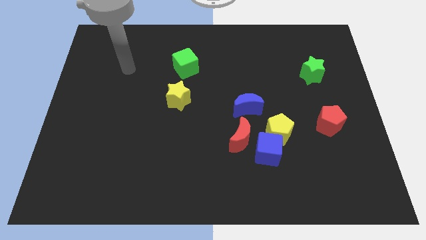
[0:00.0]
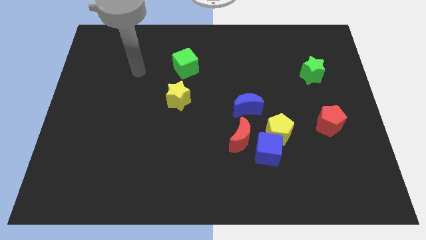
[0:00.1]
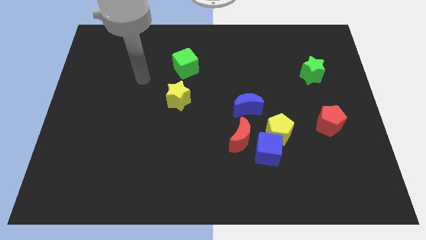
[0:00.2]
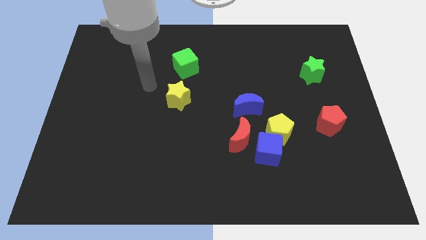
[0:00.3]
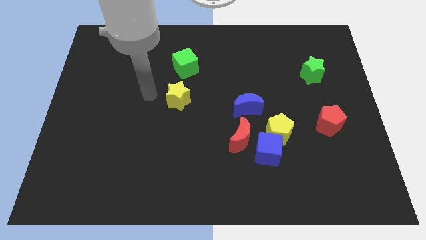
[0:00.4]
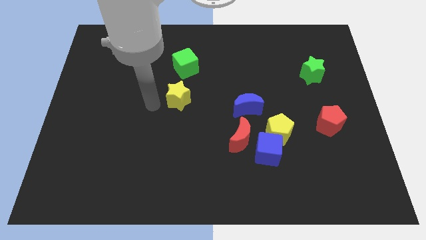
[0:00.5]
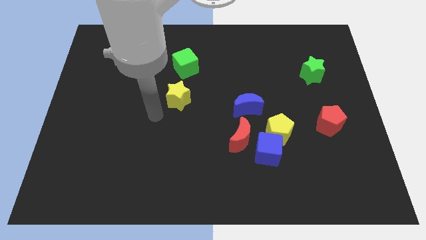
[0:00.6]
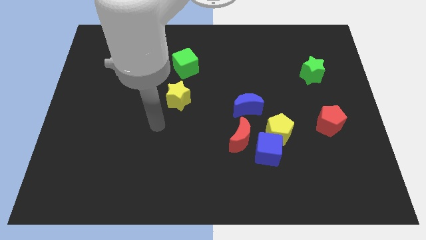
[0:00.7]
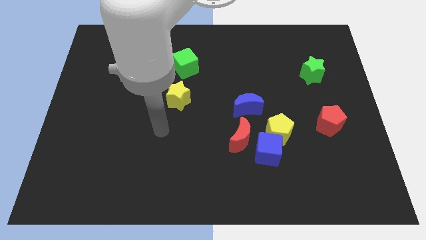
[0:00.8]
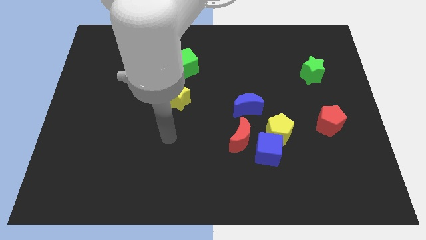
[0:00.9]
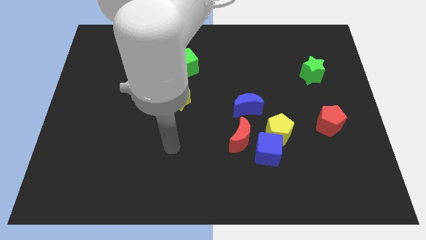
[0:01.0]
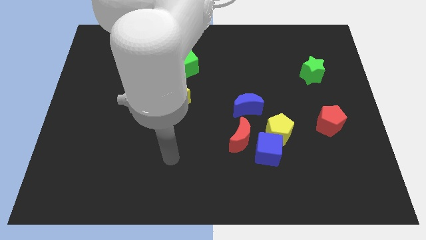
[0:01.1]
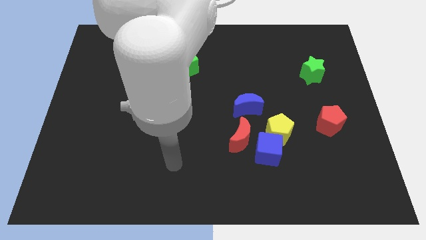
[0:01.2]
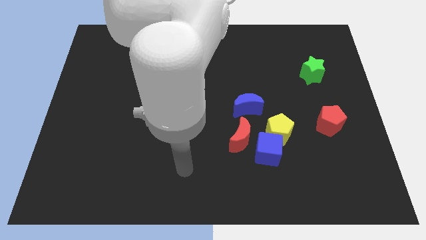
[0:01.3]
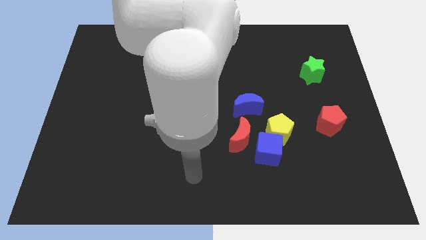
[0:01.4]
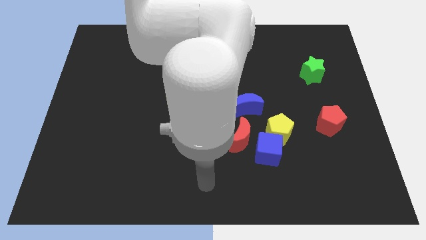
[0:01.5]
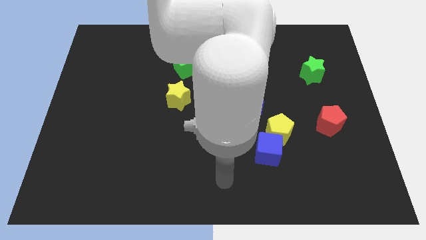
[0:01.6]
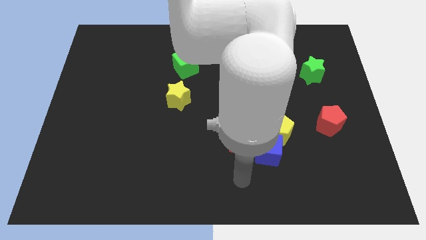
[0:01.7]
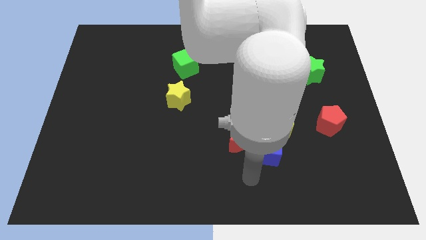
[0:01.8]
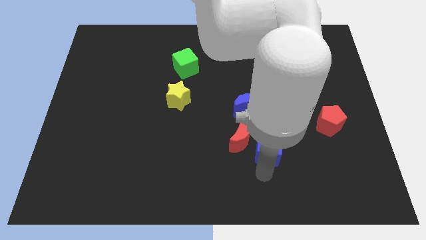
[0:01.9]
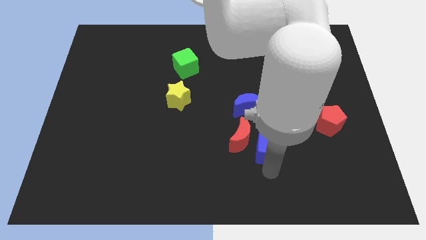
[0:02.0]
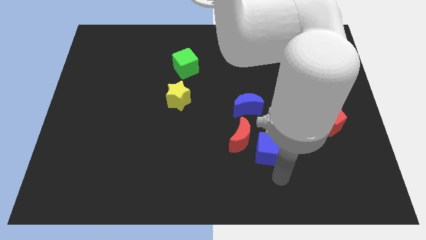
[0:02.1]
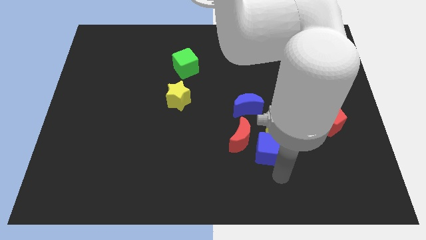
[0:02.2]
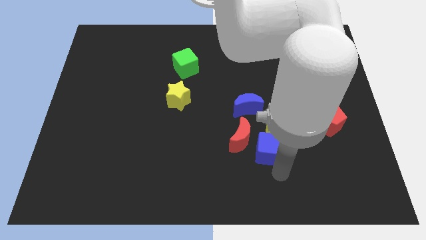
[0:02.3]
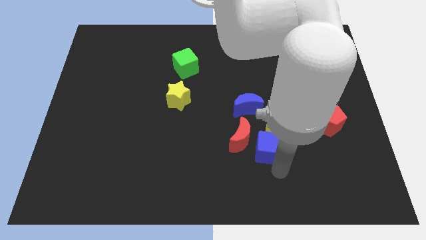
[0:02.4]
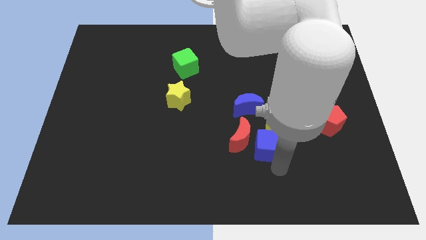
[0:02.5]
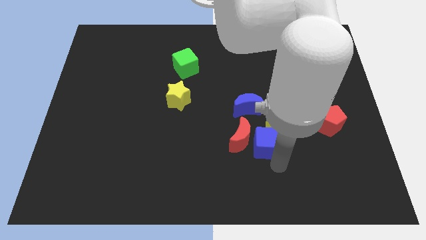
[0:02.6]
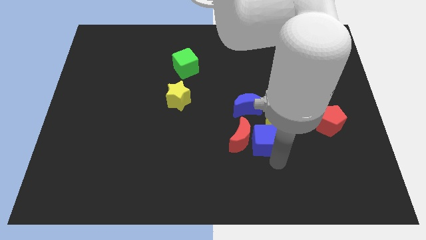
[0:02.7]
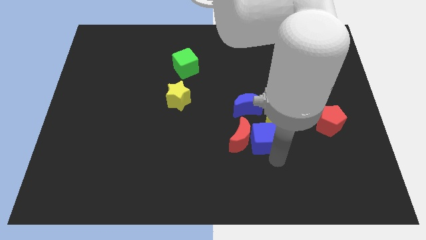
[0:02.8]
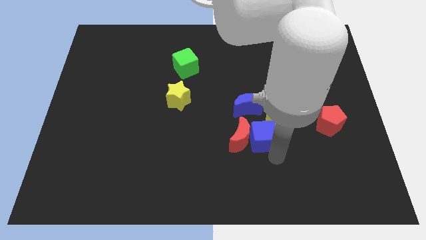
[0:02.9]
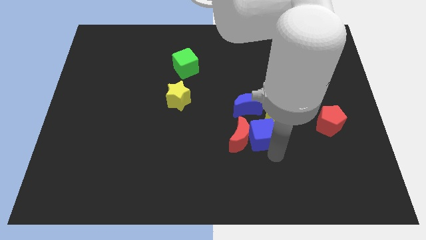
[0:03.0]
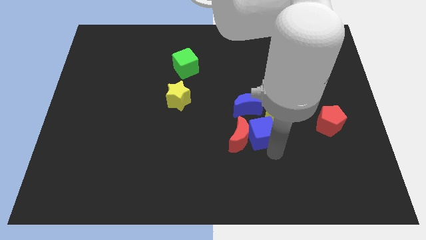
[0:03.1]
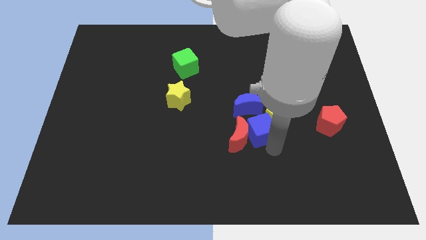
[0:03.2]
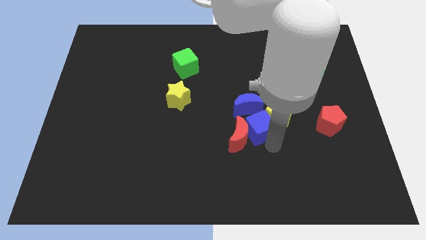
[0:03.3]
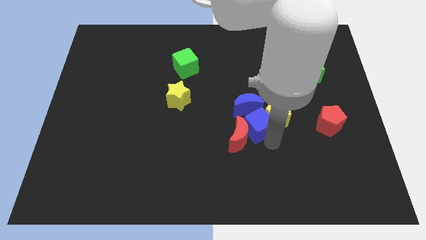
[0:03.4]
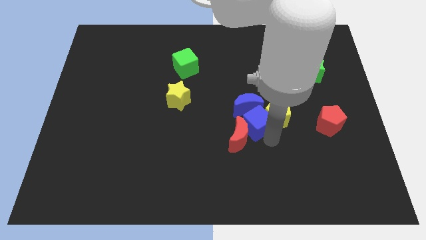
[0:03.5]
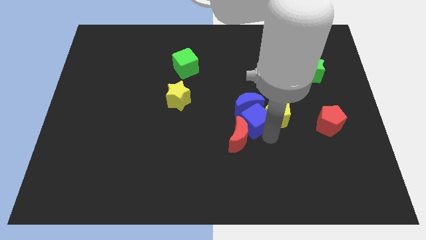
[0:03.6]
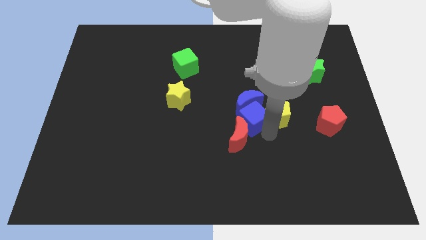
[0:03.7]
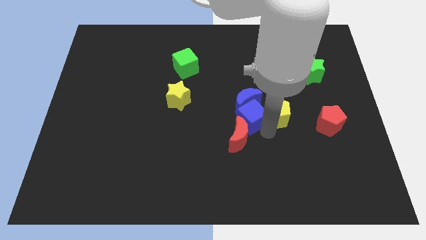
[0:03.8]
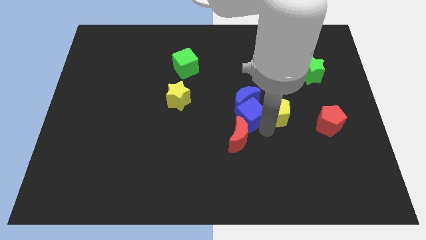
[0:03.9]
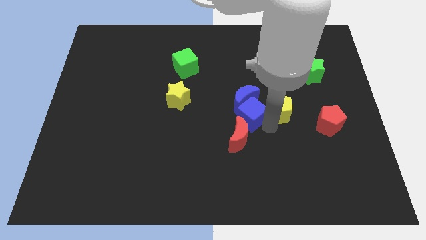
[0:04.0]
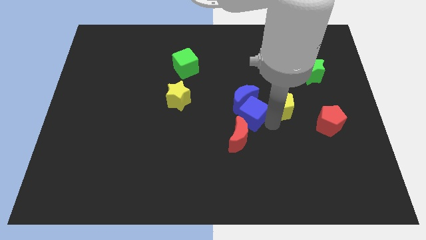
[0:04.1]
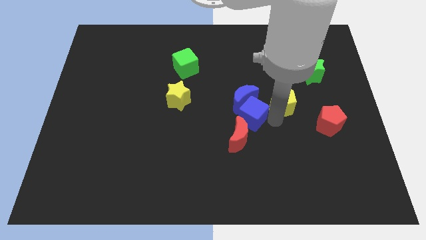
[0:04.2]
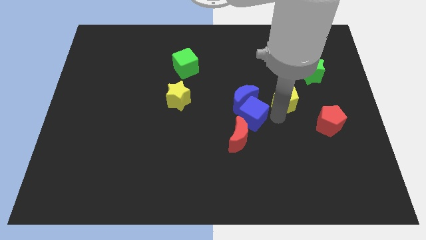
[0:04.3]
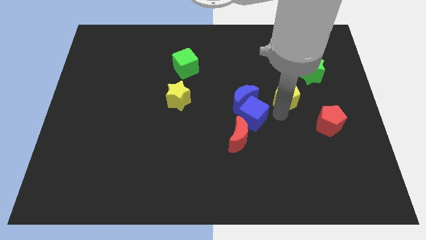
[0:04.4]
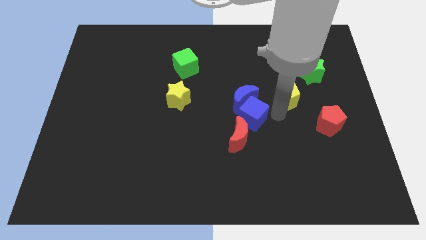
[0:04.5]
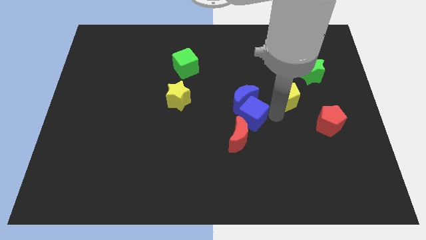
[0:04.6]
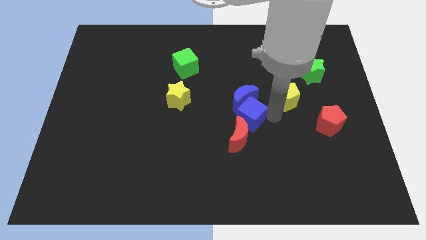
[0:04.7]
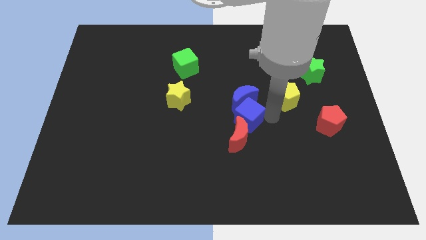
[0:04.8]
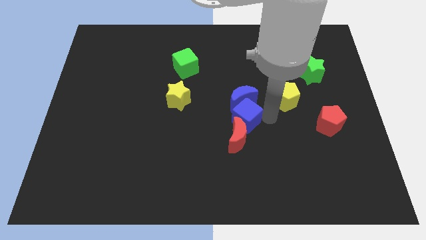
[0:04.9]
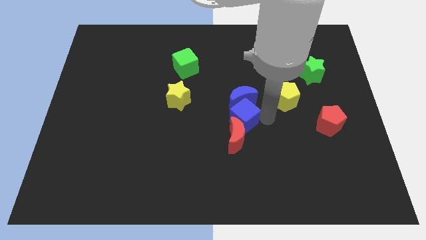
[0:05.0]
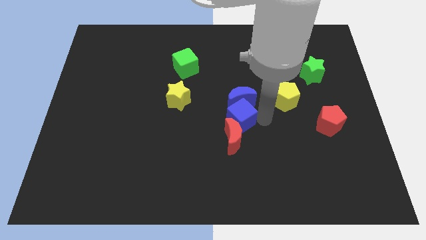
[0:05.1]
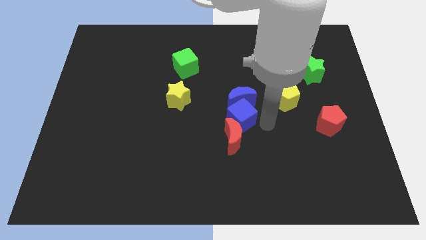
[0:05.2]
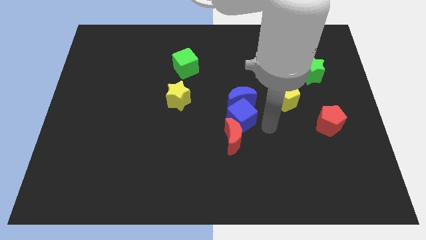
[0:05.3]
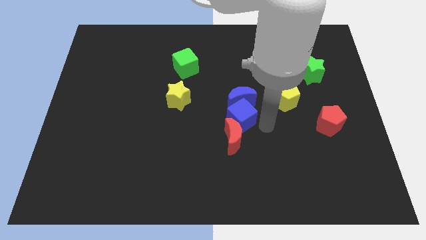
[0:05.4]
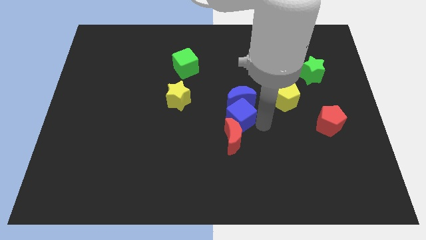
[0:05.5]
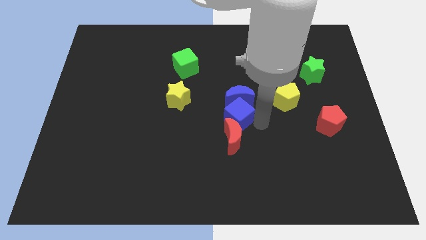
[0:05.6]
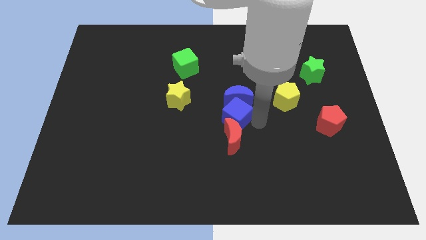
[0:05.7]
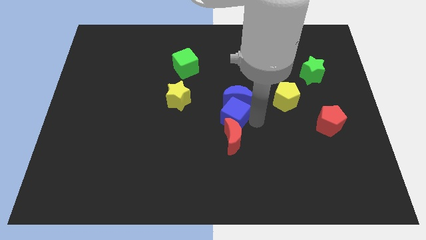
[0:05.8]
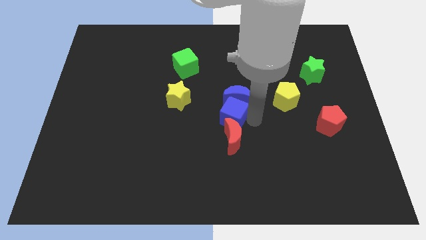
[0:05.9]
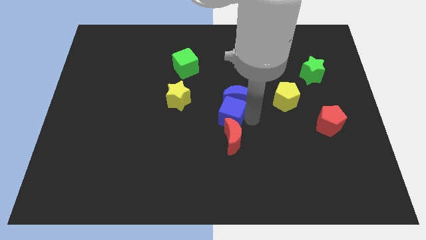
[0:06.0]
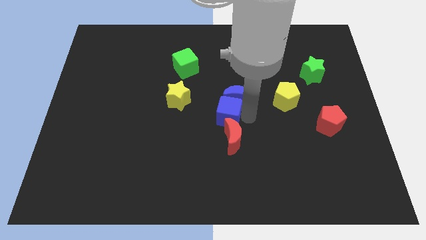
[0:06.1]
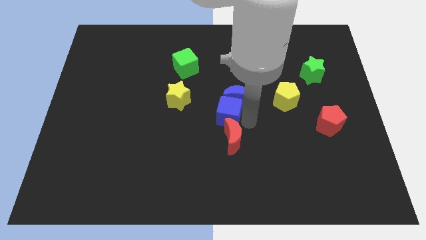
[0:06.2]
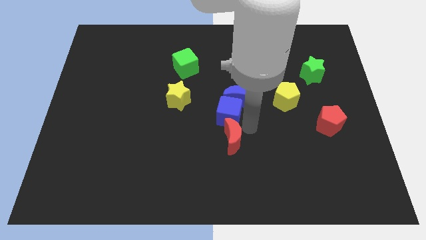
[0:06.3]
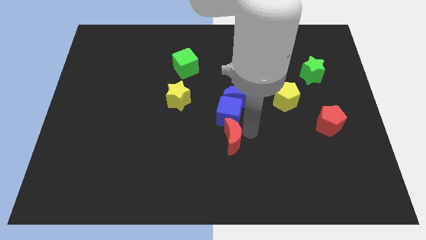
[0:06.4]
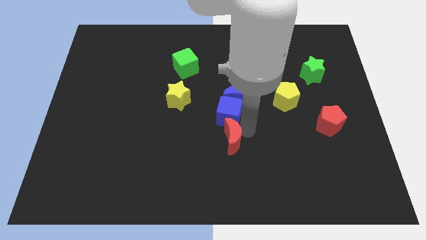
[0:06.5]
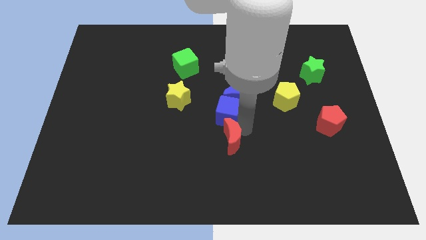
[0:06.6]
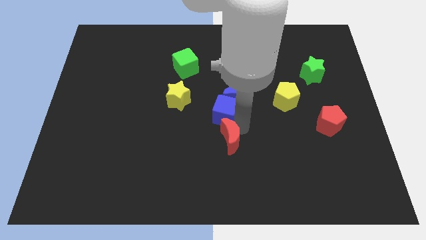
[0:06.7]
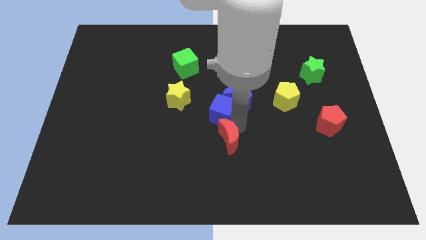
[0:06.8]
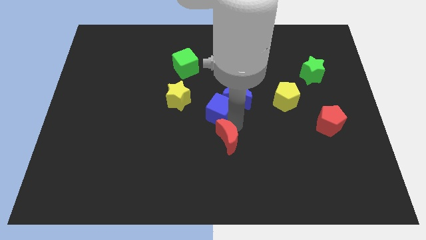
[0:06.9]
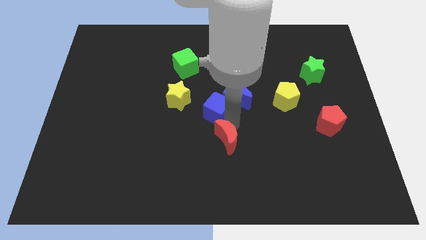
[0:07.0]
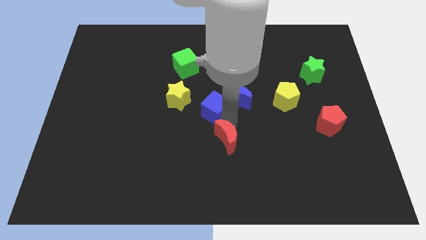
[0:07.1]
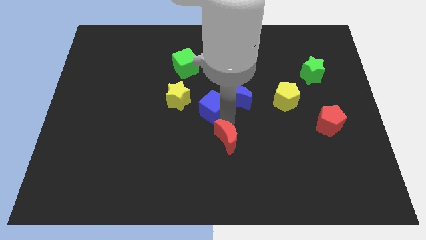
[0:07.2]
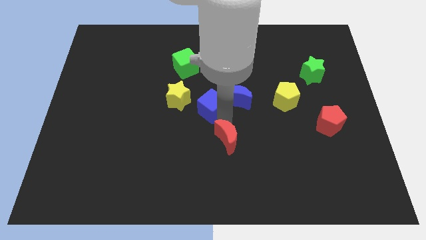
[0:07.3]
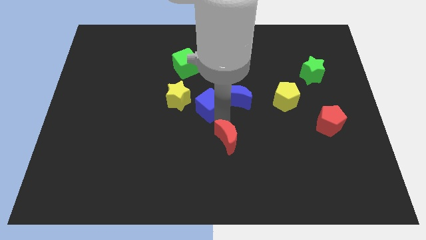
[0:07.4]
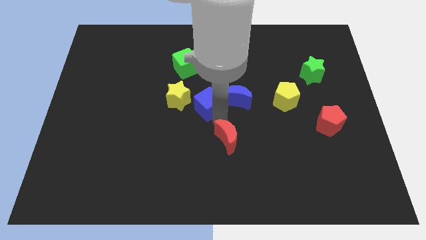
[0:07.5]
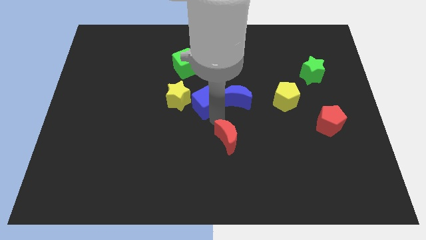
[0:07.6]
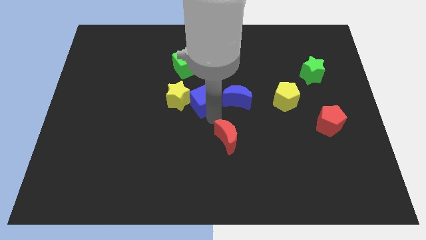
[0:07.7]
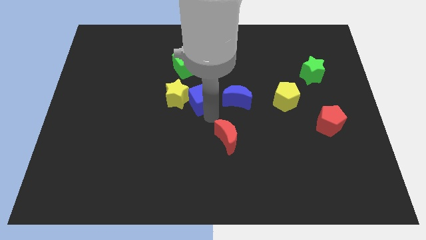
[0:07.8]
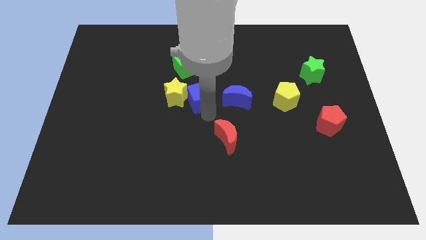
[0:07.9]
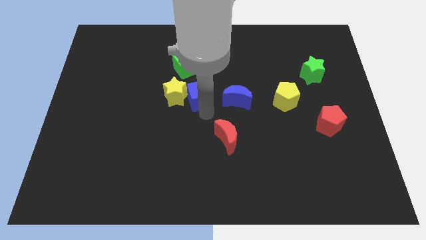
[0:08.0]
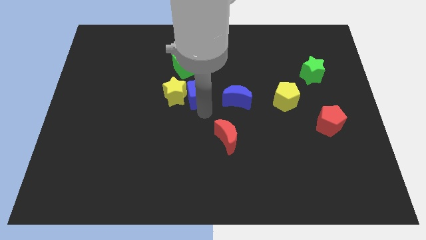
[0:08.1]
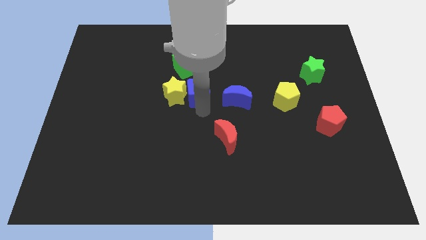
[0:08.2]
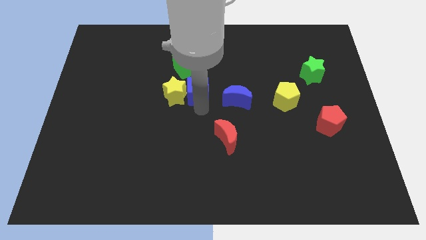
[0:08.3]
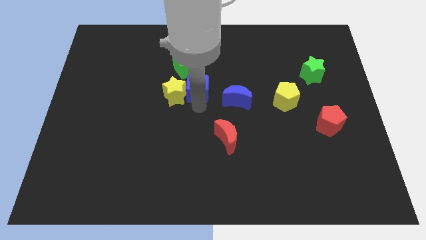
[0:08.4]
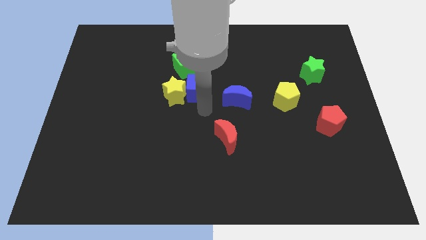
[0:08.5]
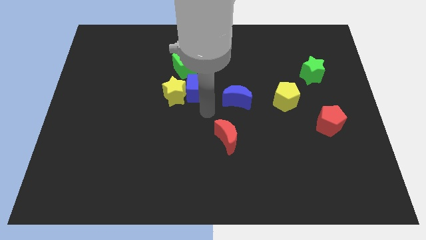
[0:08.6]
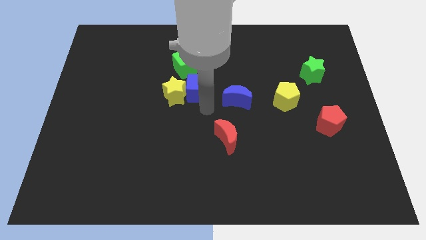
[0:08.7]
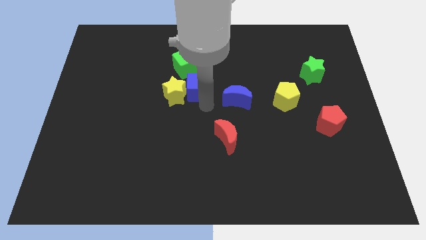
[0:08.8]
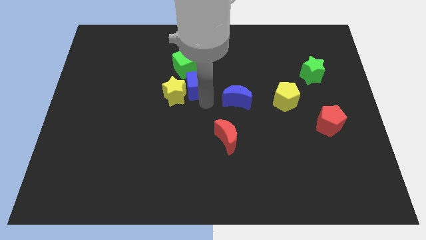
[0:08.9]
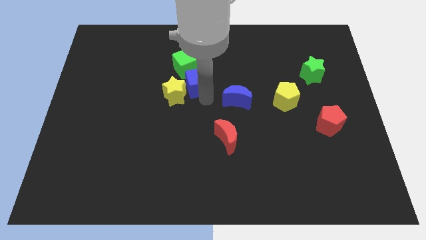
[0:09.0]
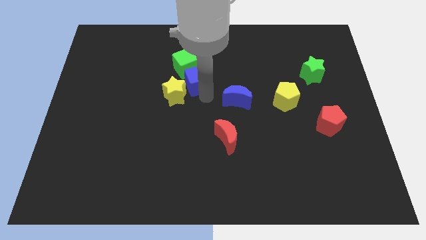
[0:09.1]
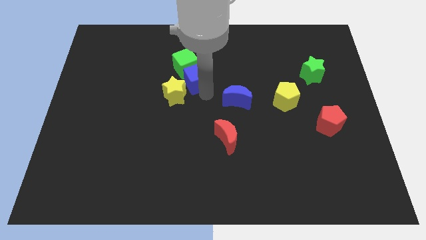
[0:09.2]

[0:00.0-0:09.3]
put the blue cube next to the green cube
